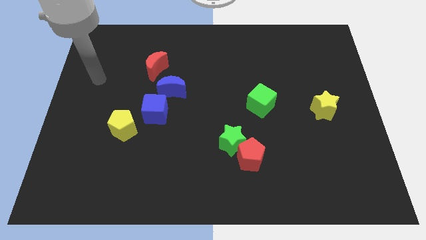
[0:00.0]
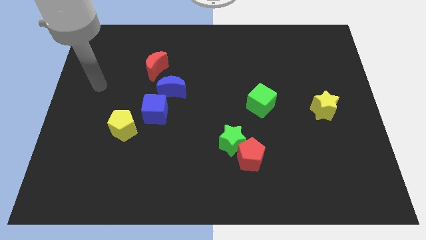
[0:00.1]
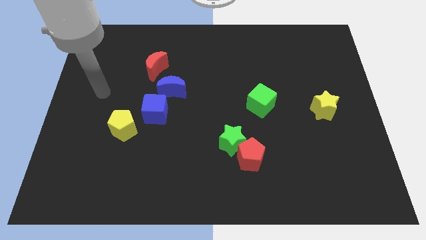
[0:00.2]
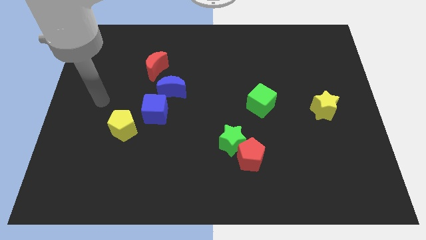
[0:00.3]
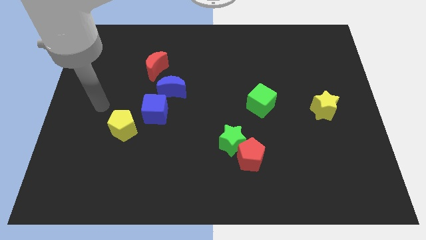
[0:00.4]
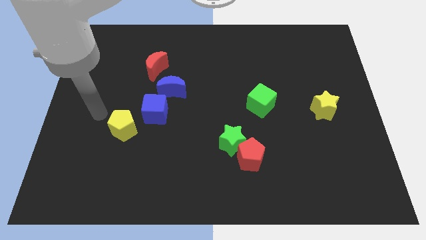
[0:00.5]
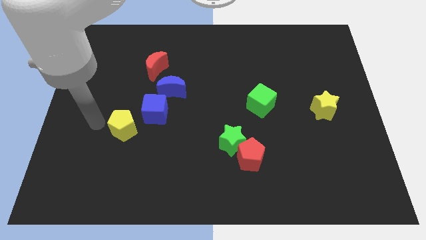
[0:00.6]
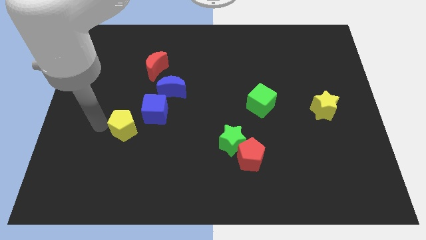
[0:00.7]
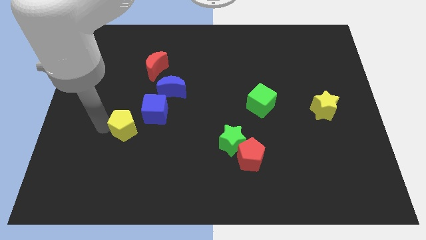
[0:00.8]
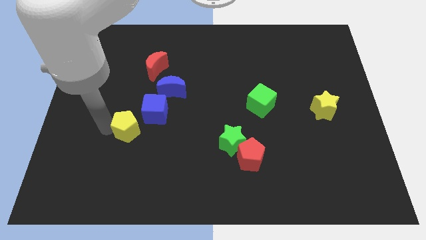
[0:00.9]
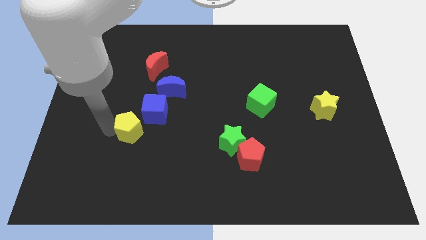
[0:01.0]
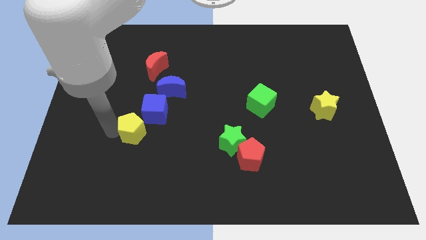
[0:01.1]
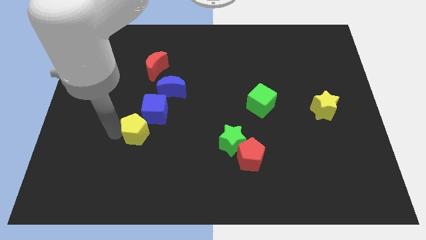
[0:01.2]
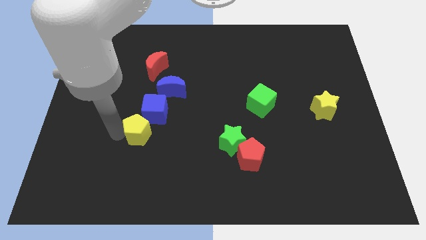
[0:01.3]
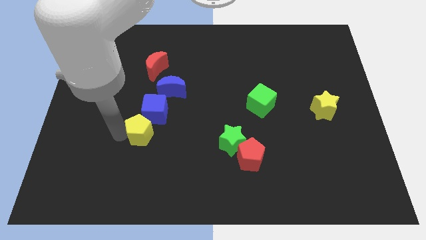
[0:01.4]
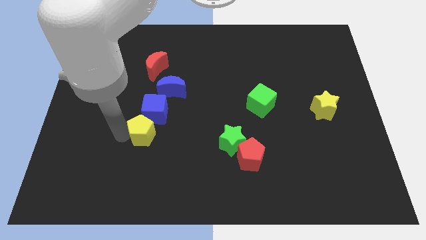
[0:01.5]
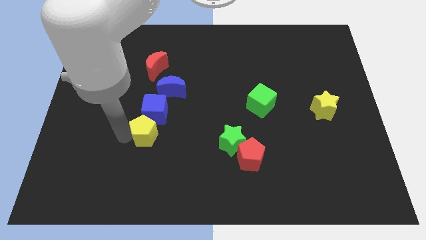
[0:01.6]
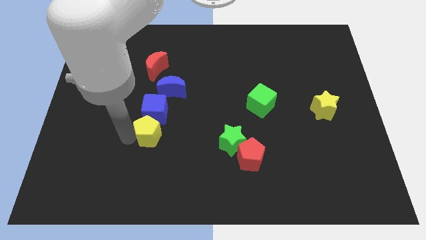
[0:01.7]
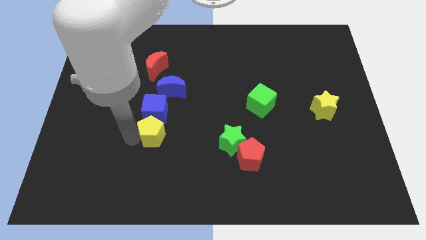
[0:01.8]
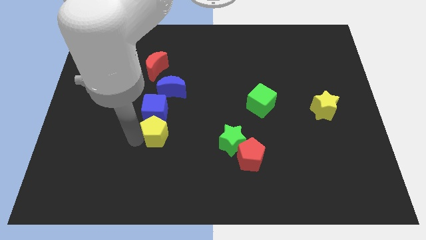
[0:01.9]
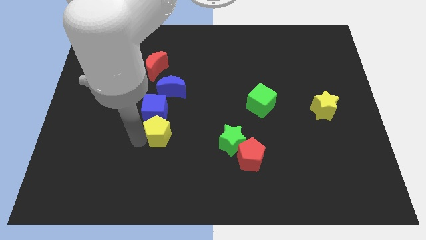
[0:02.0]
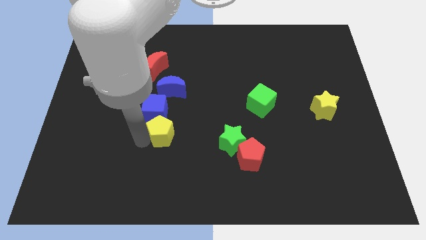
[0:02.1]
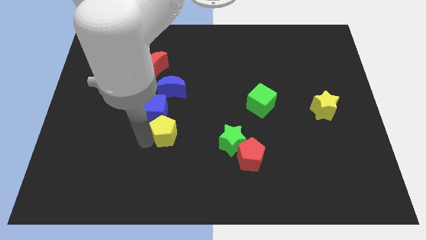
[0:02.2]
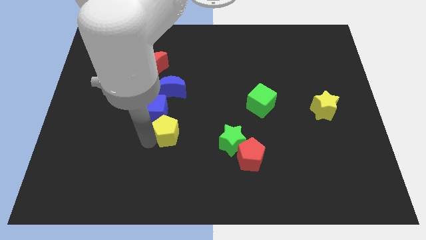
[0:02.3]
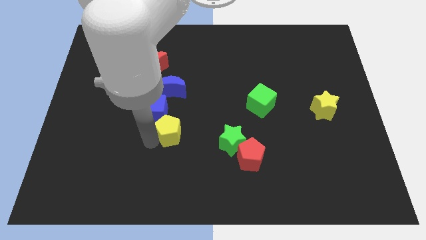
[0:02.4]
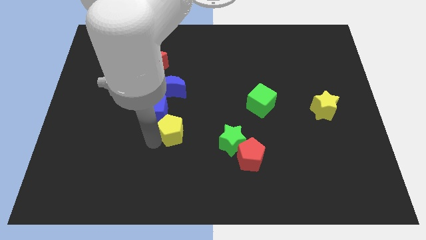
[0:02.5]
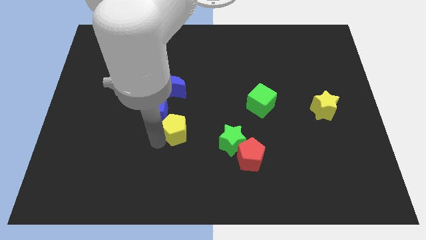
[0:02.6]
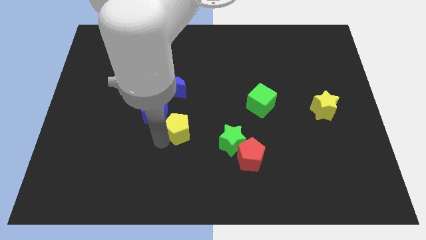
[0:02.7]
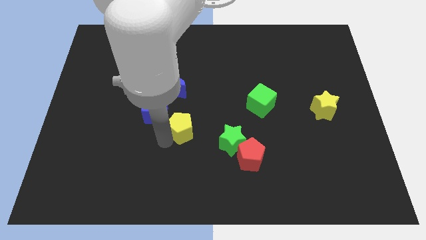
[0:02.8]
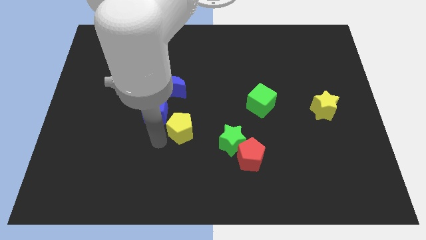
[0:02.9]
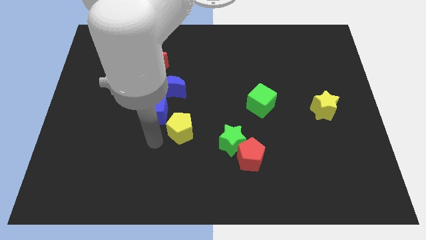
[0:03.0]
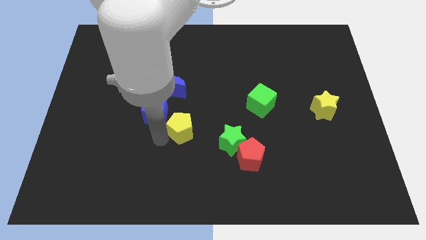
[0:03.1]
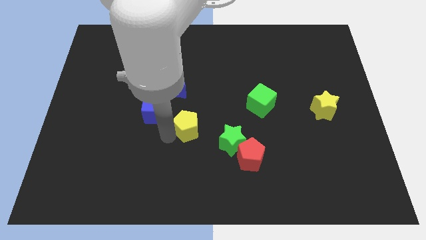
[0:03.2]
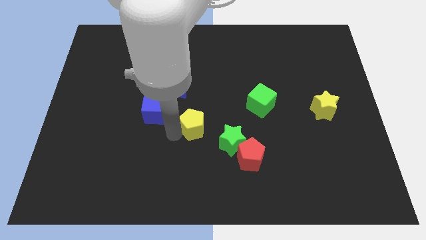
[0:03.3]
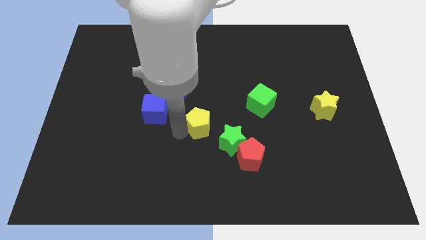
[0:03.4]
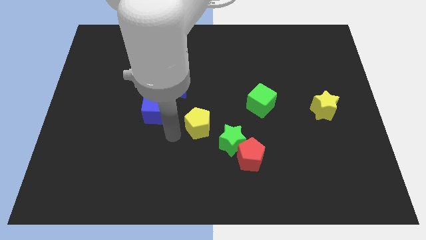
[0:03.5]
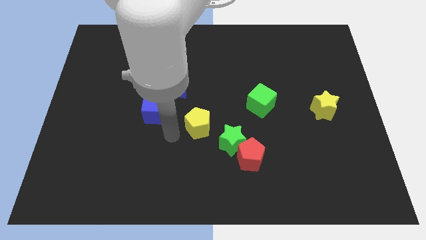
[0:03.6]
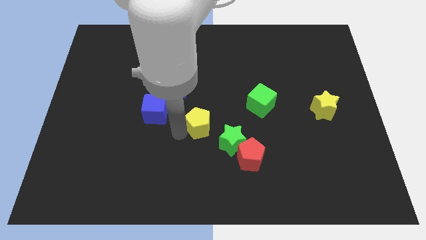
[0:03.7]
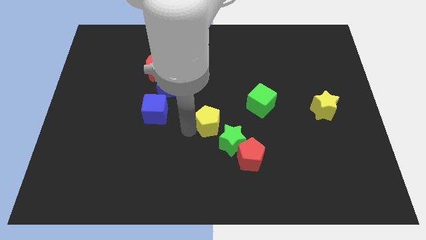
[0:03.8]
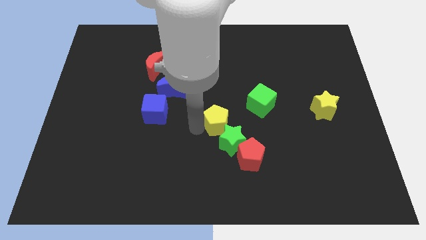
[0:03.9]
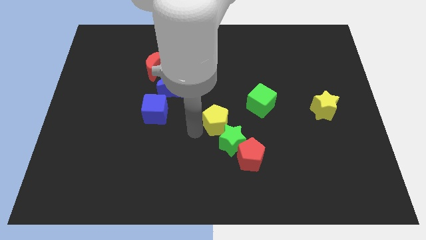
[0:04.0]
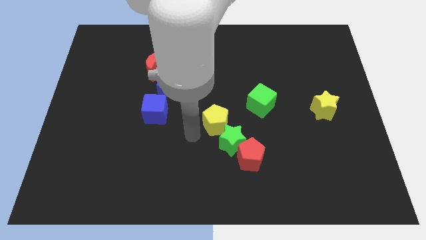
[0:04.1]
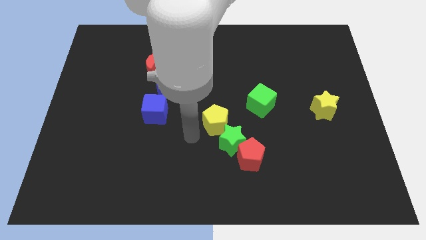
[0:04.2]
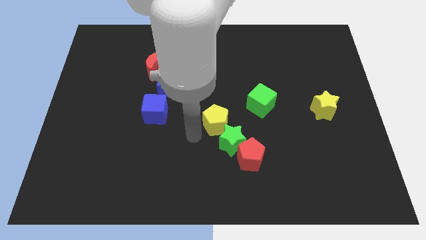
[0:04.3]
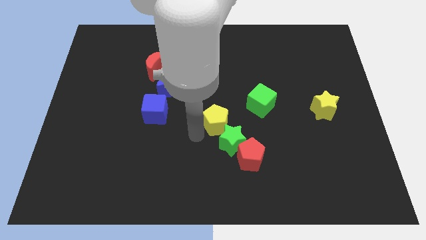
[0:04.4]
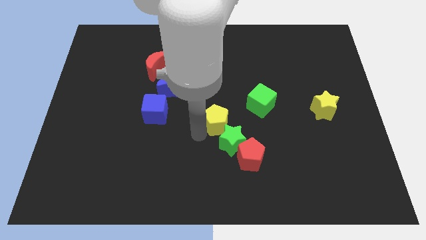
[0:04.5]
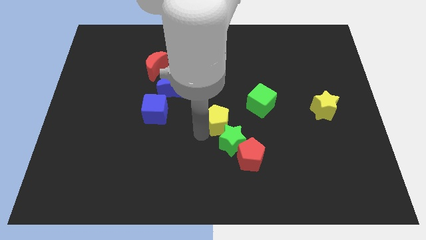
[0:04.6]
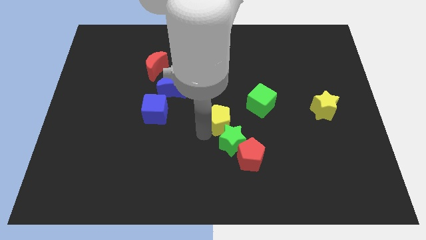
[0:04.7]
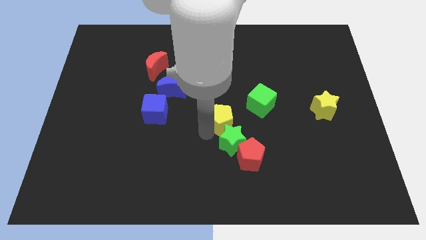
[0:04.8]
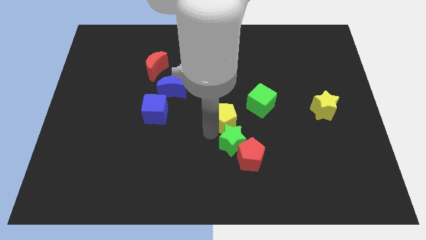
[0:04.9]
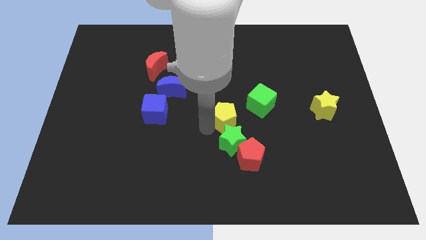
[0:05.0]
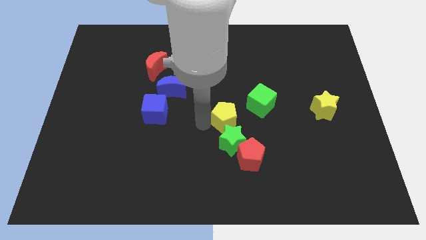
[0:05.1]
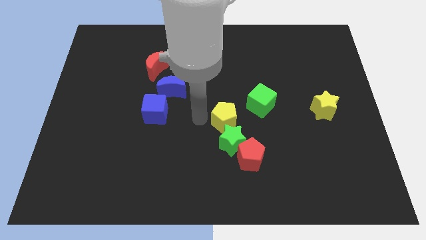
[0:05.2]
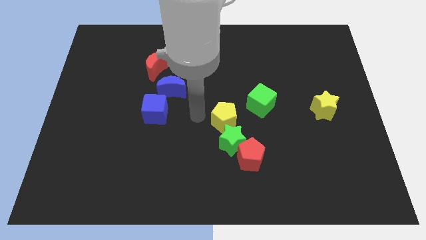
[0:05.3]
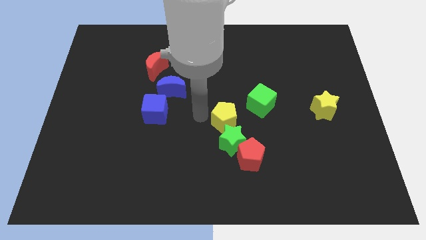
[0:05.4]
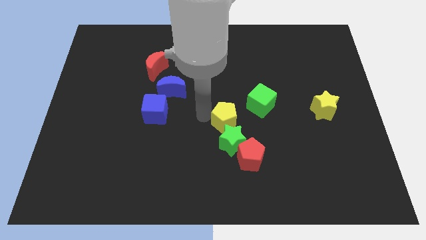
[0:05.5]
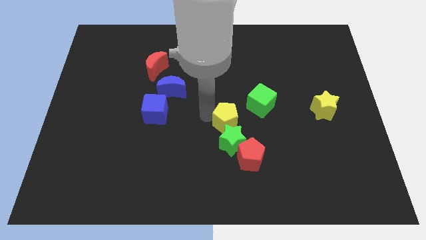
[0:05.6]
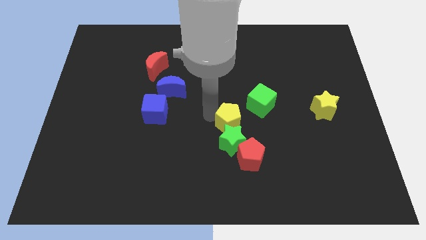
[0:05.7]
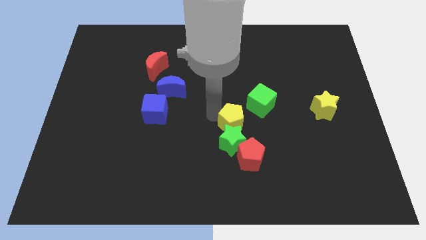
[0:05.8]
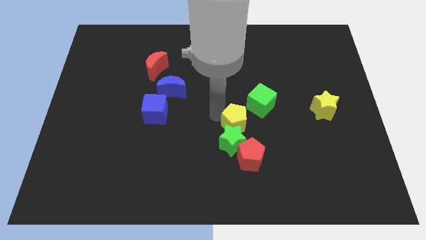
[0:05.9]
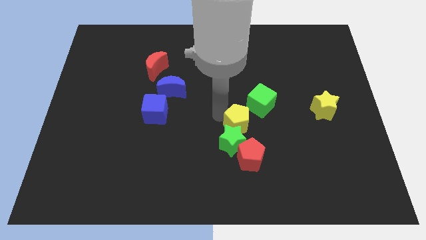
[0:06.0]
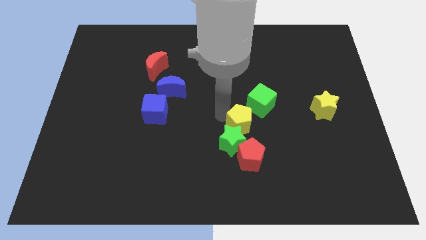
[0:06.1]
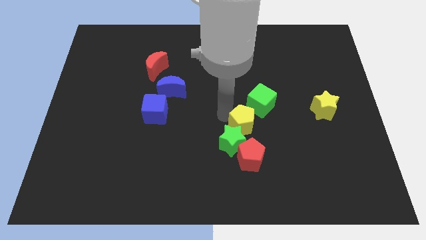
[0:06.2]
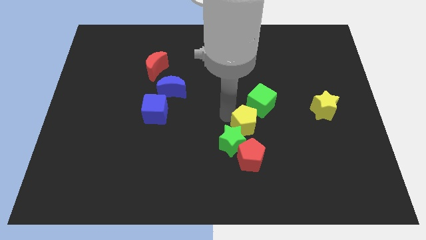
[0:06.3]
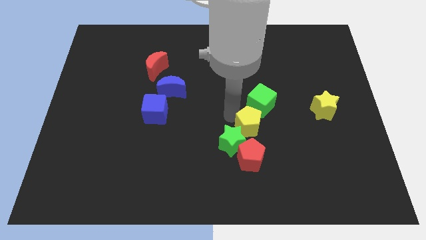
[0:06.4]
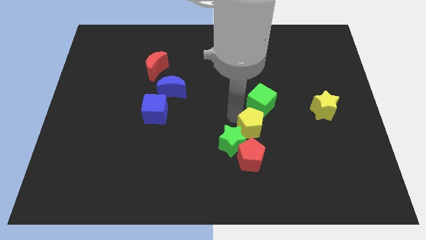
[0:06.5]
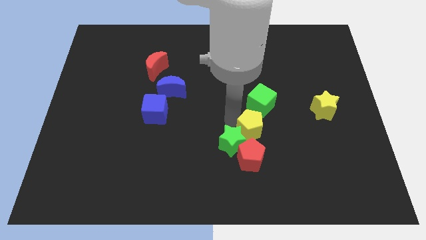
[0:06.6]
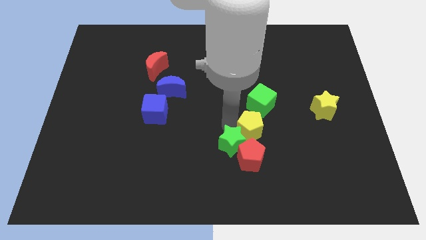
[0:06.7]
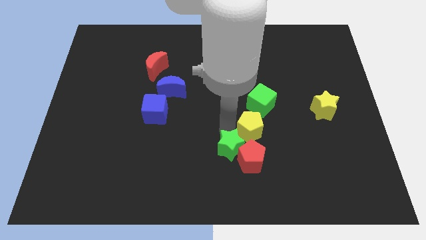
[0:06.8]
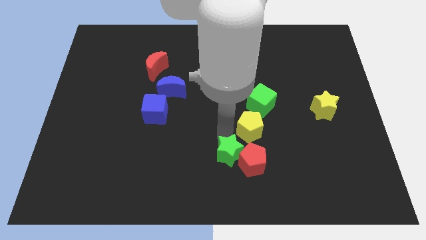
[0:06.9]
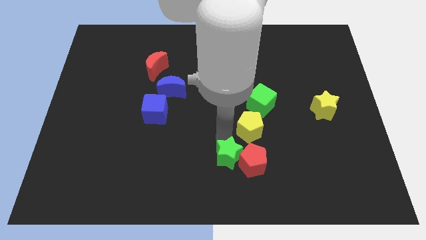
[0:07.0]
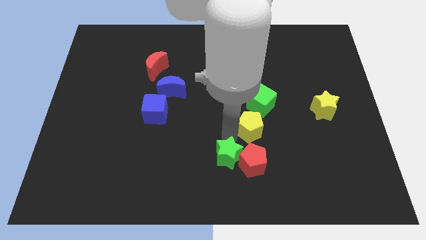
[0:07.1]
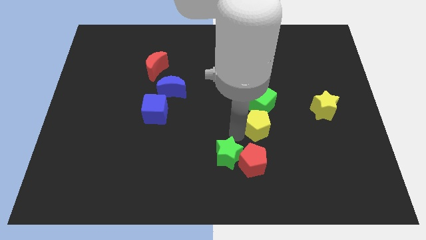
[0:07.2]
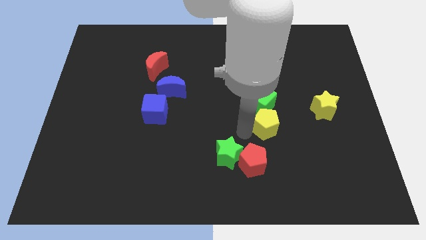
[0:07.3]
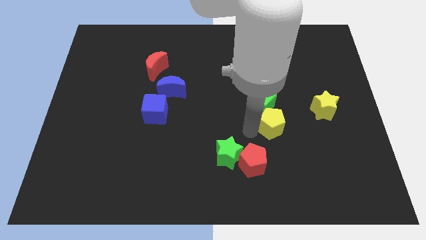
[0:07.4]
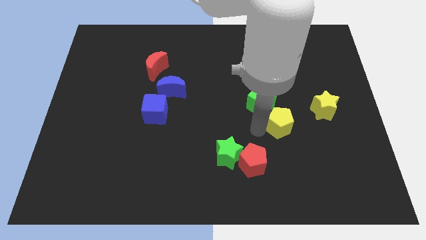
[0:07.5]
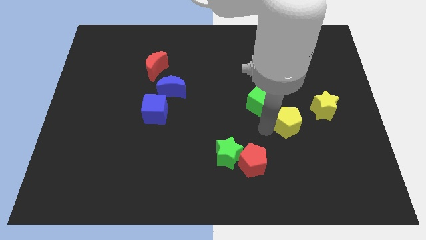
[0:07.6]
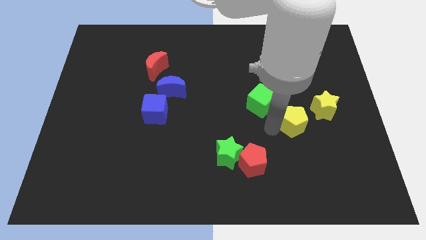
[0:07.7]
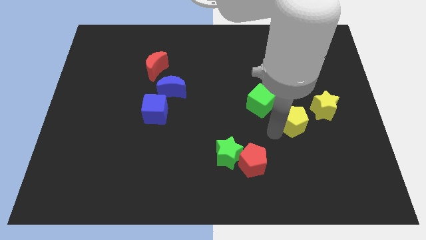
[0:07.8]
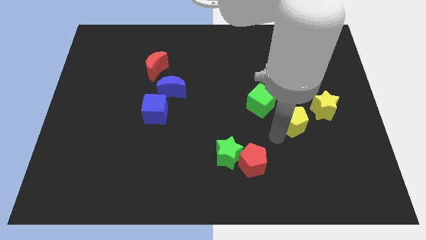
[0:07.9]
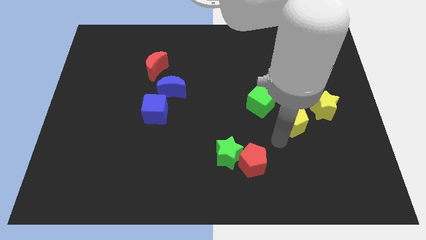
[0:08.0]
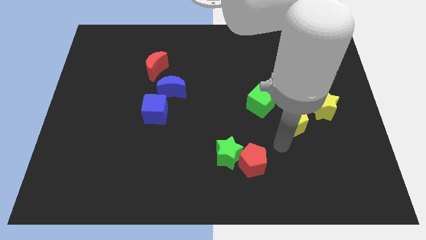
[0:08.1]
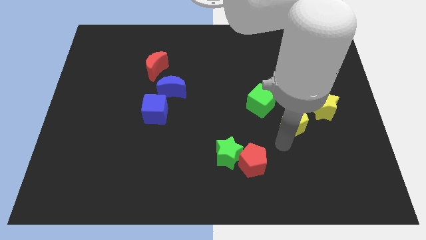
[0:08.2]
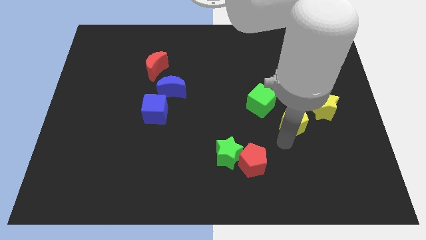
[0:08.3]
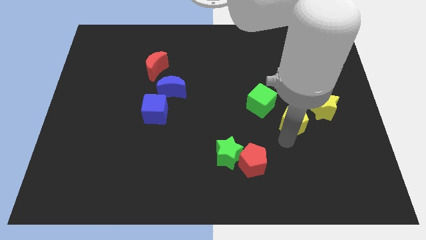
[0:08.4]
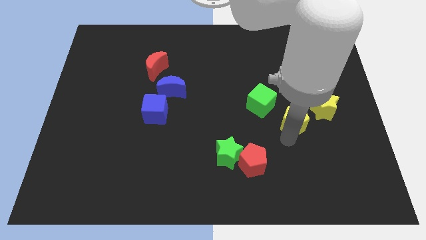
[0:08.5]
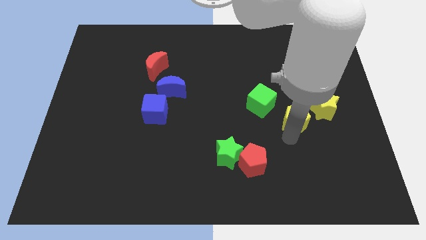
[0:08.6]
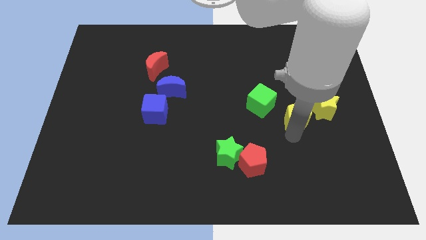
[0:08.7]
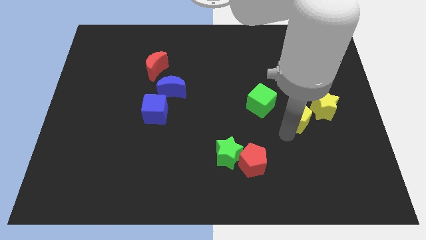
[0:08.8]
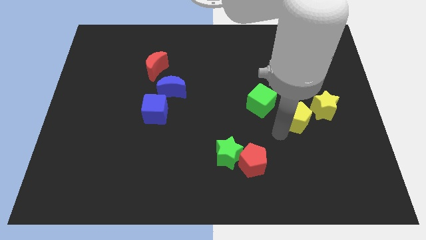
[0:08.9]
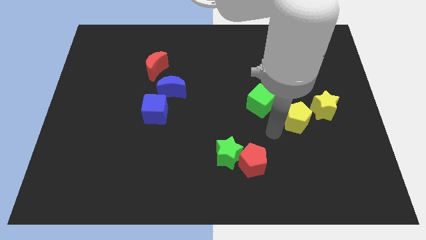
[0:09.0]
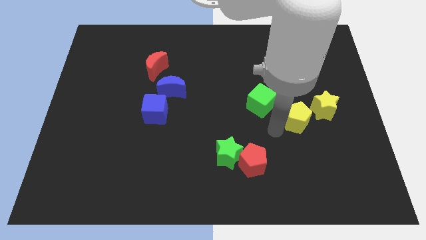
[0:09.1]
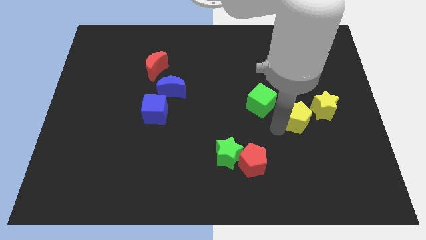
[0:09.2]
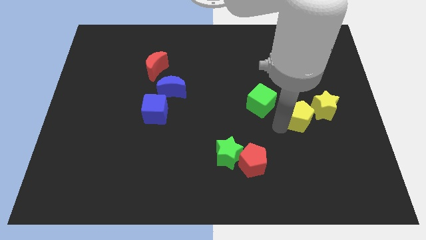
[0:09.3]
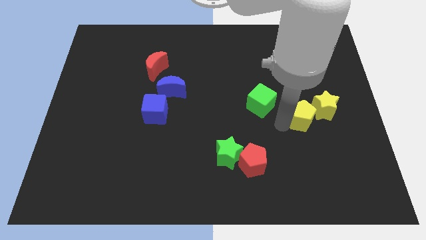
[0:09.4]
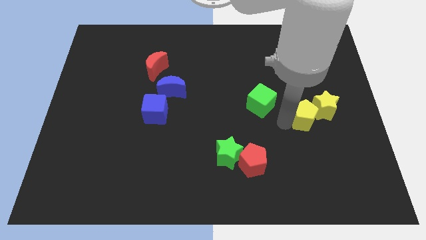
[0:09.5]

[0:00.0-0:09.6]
slide the yellow pentagon close to the yellow star
